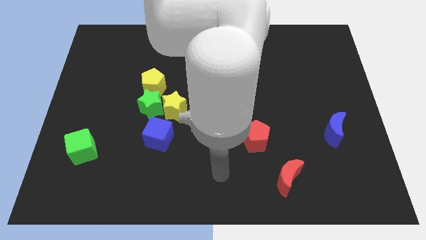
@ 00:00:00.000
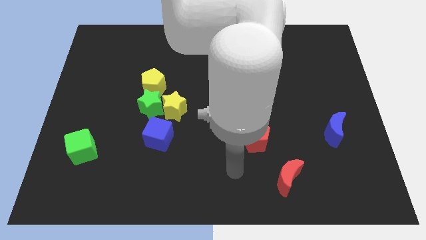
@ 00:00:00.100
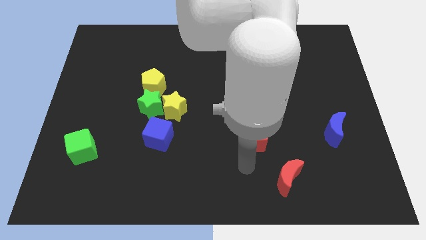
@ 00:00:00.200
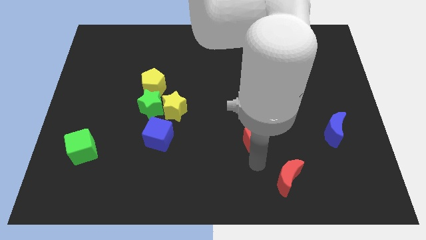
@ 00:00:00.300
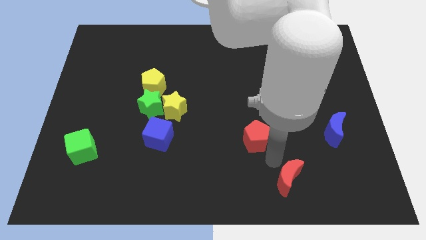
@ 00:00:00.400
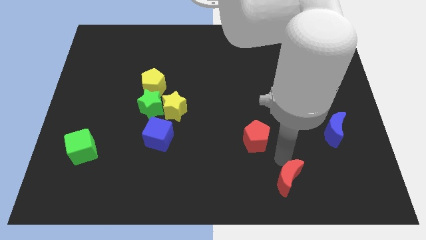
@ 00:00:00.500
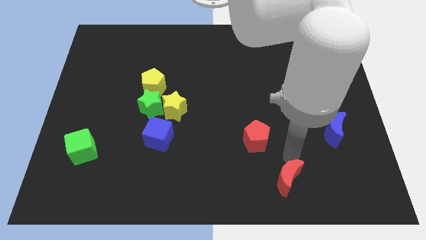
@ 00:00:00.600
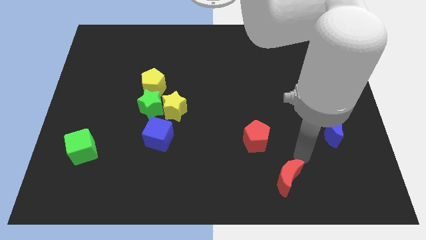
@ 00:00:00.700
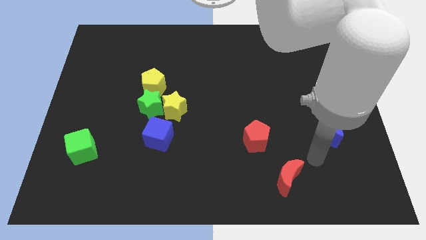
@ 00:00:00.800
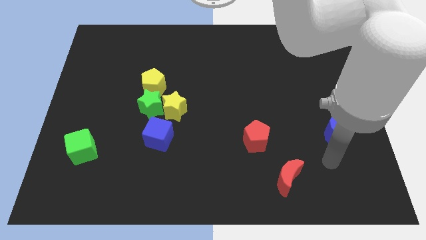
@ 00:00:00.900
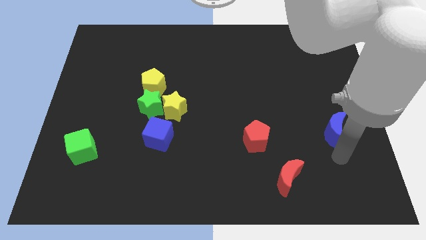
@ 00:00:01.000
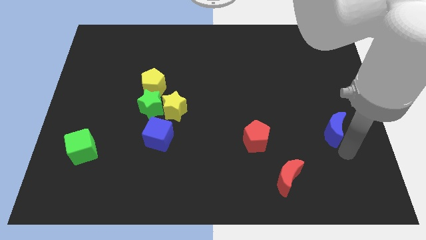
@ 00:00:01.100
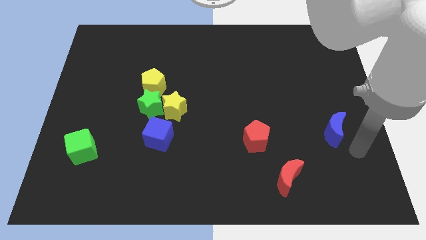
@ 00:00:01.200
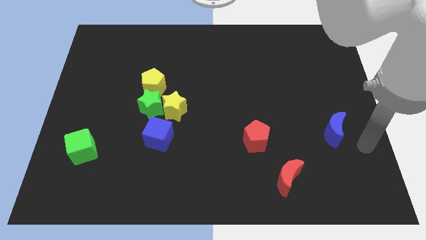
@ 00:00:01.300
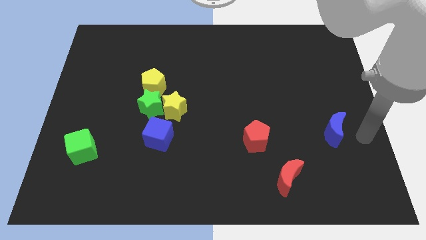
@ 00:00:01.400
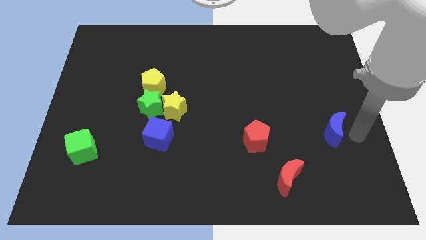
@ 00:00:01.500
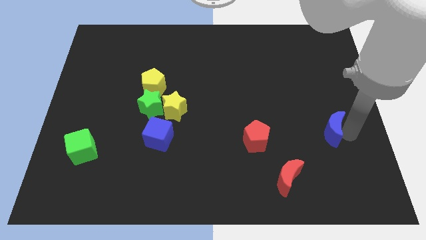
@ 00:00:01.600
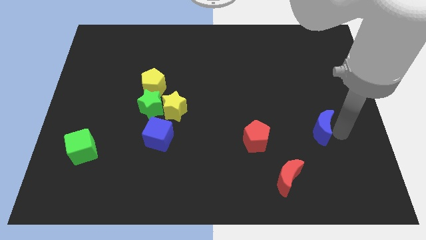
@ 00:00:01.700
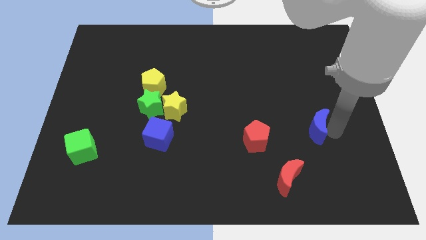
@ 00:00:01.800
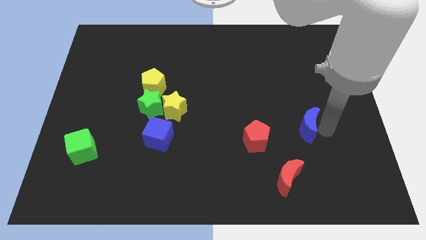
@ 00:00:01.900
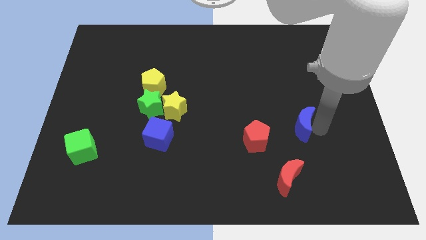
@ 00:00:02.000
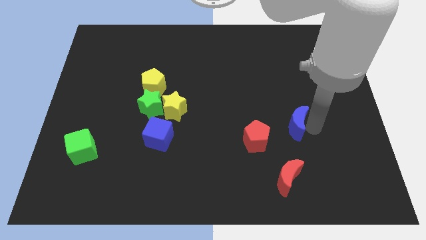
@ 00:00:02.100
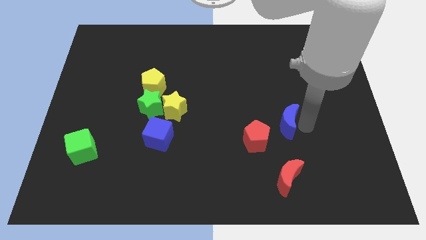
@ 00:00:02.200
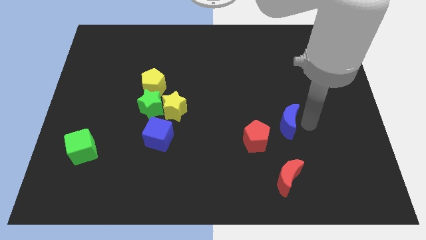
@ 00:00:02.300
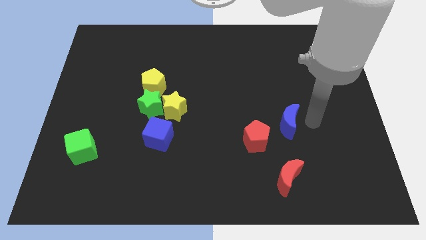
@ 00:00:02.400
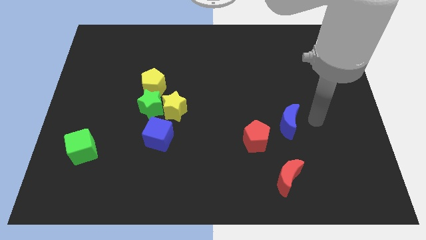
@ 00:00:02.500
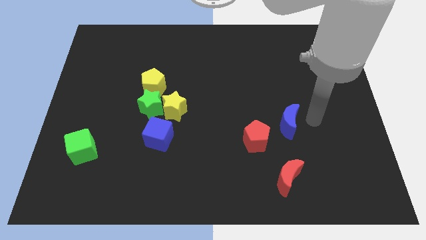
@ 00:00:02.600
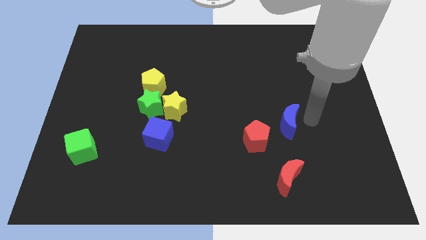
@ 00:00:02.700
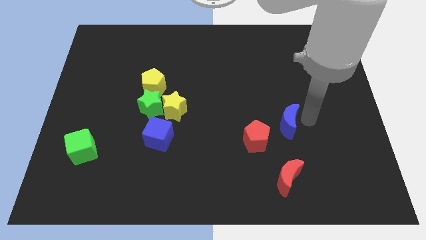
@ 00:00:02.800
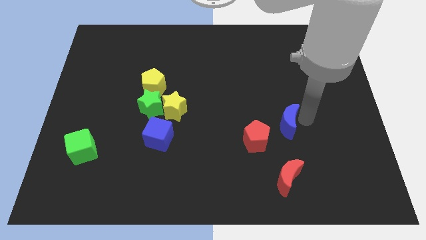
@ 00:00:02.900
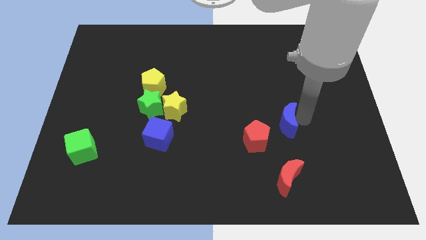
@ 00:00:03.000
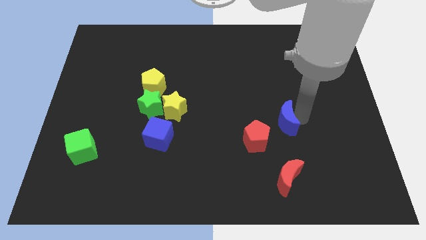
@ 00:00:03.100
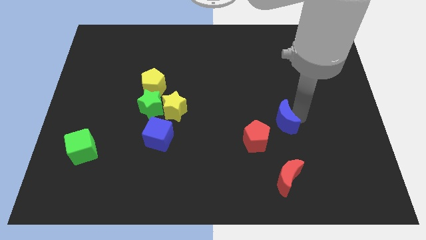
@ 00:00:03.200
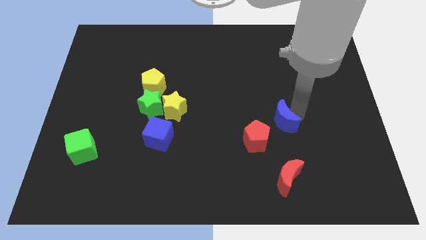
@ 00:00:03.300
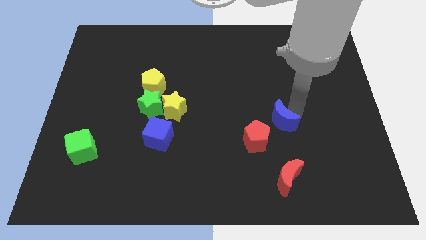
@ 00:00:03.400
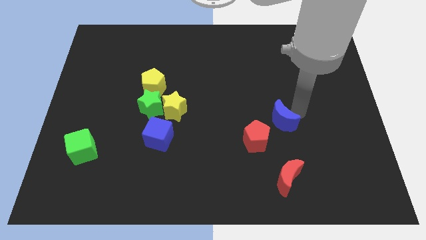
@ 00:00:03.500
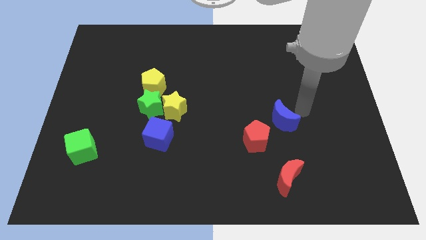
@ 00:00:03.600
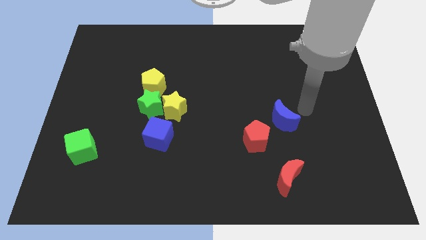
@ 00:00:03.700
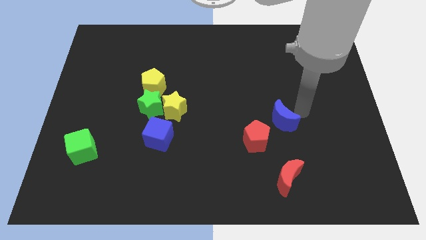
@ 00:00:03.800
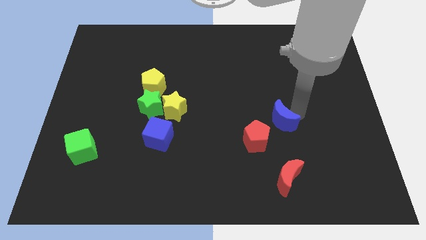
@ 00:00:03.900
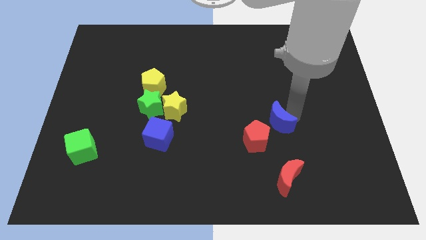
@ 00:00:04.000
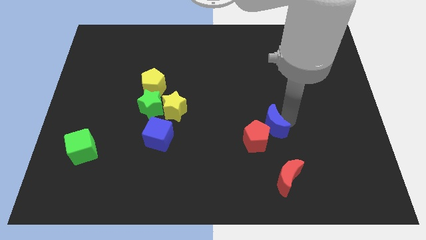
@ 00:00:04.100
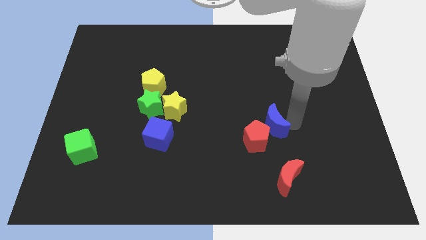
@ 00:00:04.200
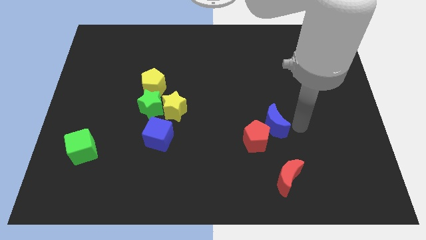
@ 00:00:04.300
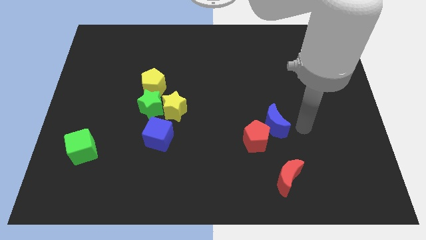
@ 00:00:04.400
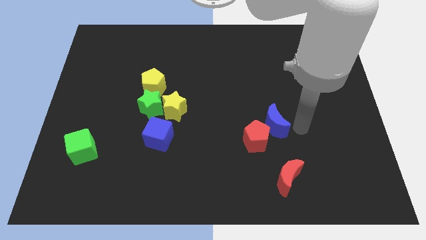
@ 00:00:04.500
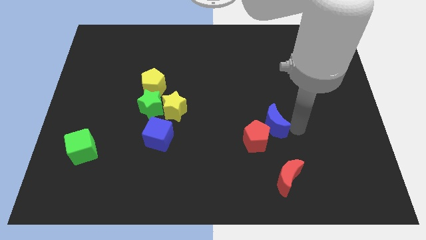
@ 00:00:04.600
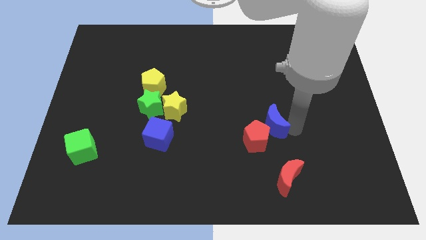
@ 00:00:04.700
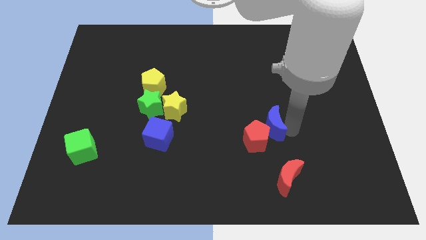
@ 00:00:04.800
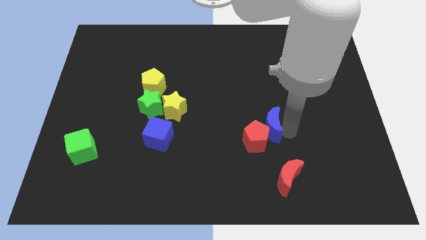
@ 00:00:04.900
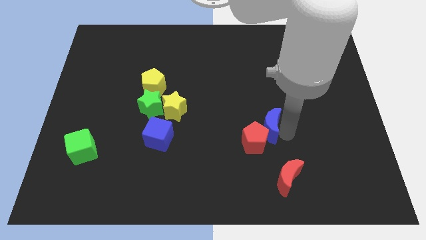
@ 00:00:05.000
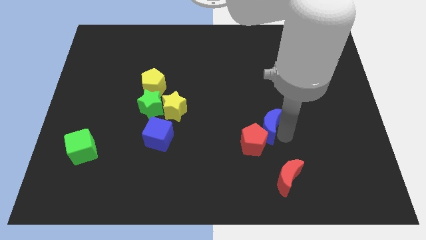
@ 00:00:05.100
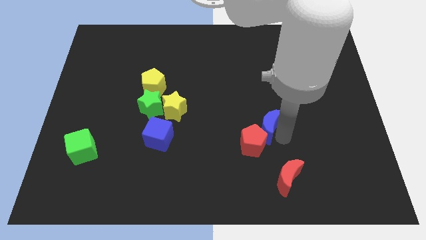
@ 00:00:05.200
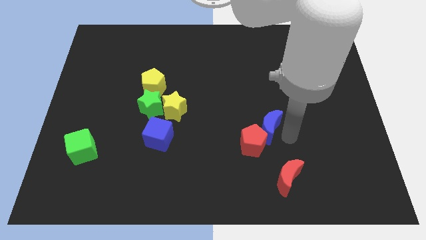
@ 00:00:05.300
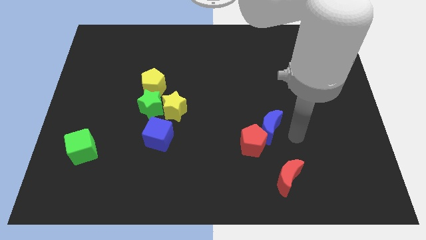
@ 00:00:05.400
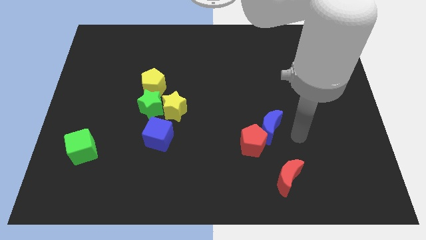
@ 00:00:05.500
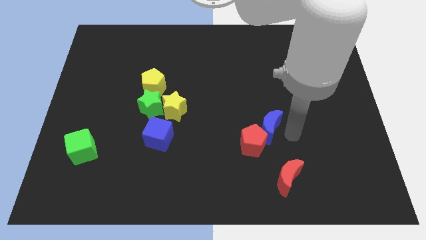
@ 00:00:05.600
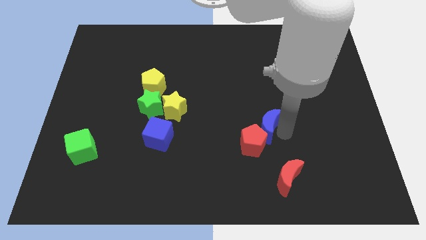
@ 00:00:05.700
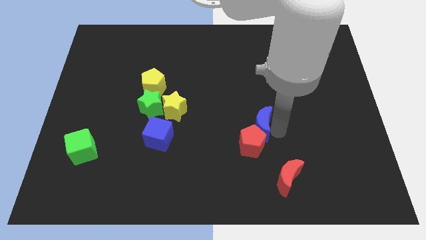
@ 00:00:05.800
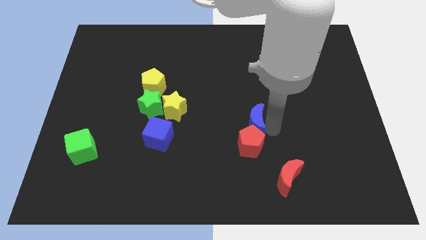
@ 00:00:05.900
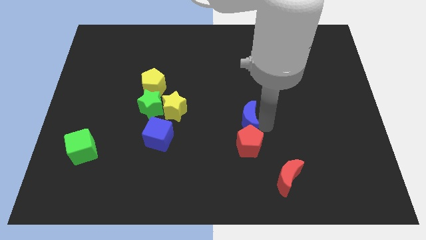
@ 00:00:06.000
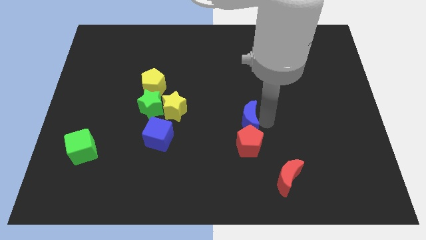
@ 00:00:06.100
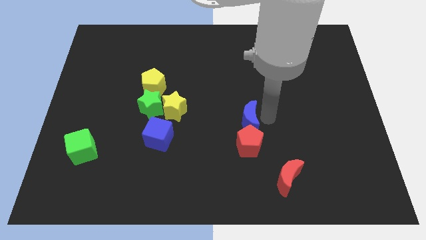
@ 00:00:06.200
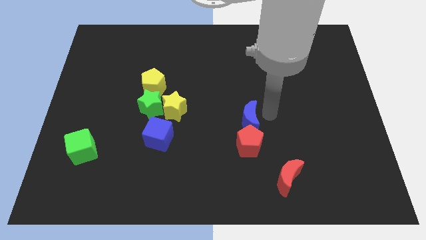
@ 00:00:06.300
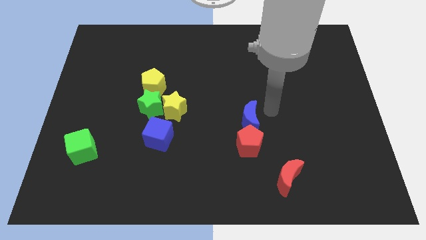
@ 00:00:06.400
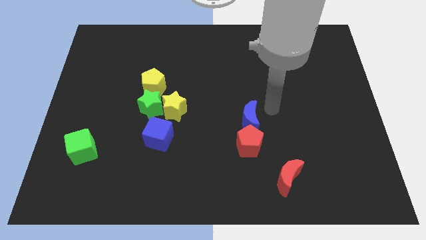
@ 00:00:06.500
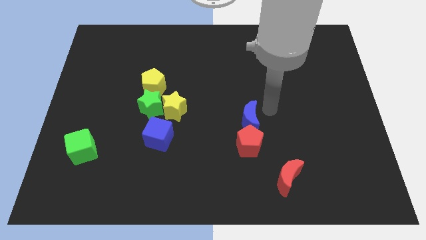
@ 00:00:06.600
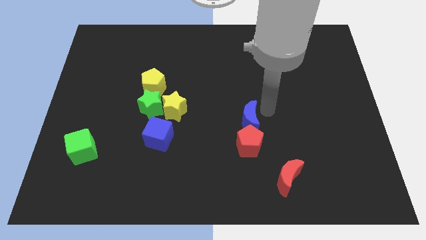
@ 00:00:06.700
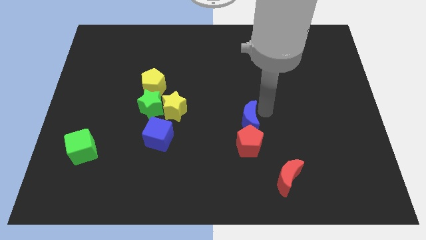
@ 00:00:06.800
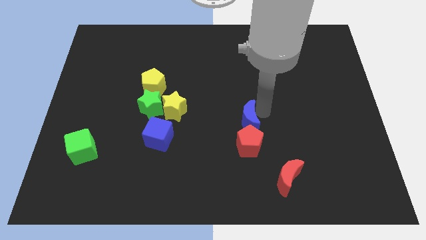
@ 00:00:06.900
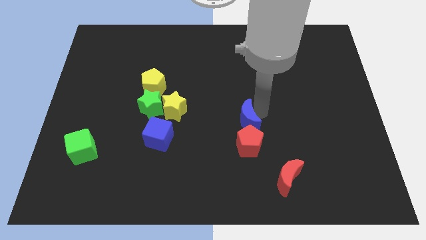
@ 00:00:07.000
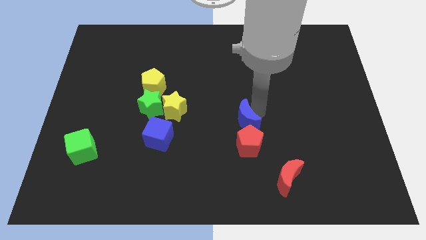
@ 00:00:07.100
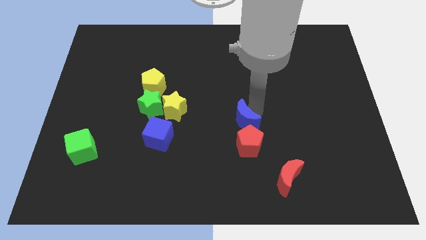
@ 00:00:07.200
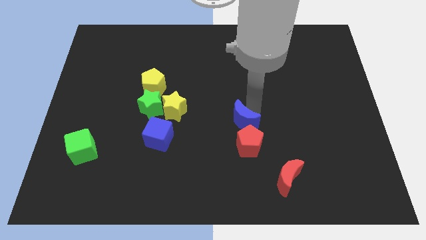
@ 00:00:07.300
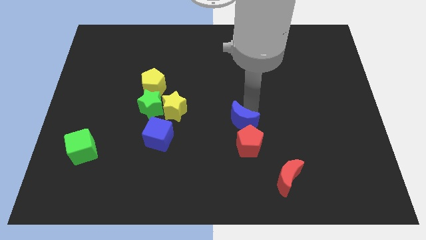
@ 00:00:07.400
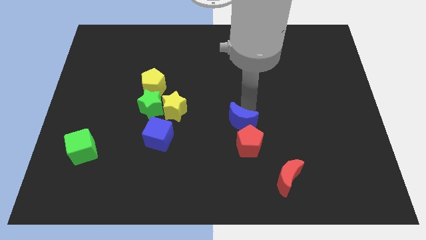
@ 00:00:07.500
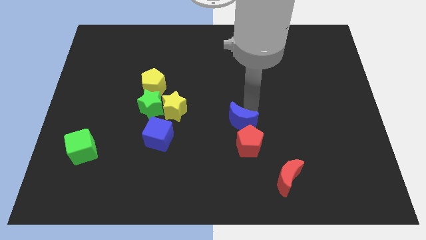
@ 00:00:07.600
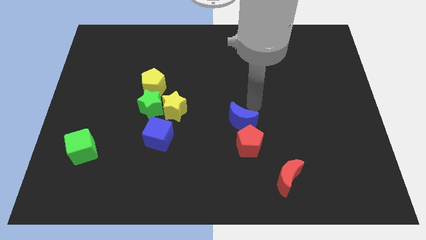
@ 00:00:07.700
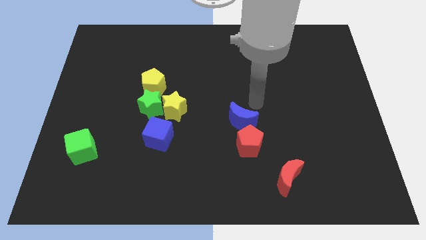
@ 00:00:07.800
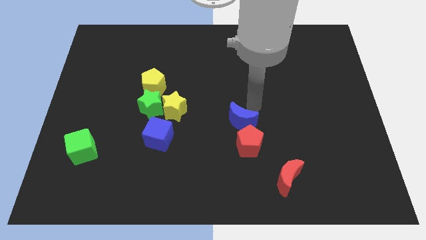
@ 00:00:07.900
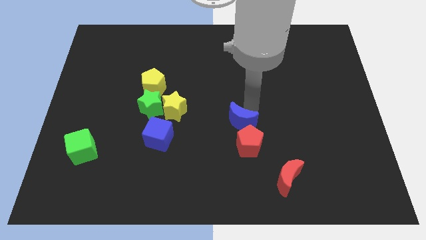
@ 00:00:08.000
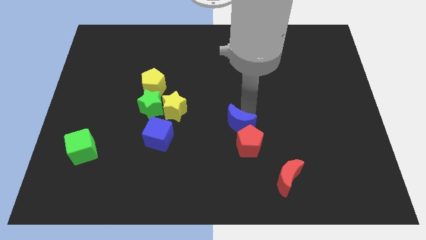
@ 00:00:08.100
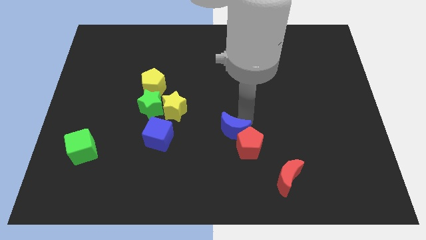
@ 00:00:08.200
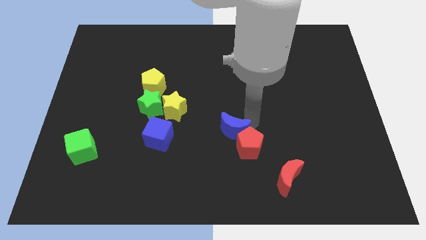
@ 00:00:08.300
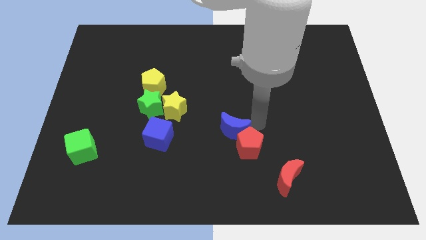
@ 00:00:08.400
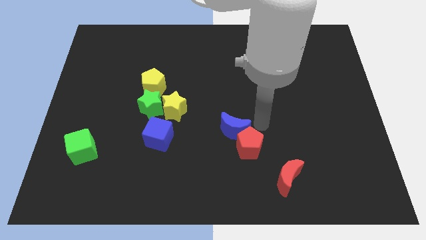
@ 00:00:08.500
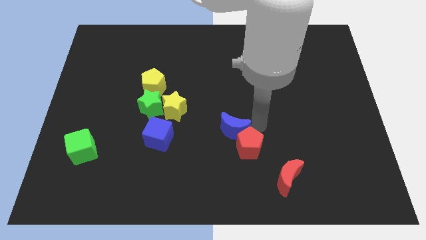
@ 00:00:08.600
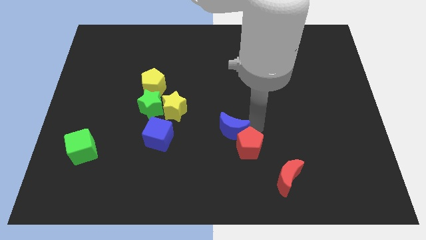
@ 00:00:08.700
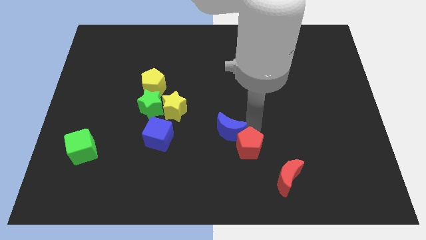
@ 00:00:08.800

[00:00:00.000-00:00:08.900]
put the blue moon just right of the blue cube
